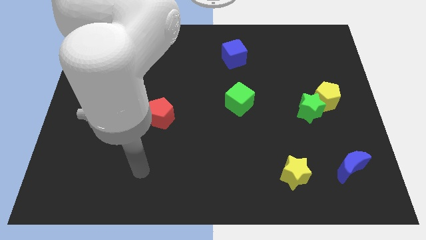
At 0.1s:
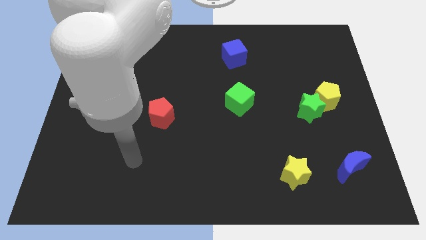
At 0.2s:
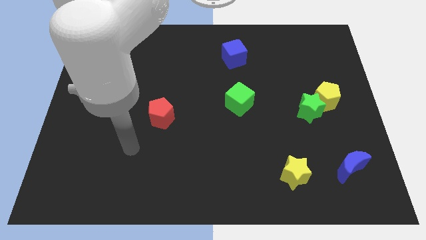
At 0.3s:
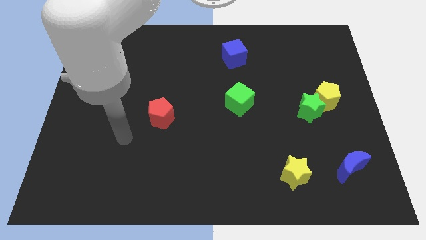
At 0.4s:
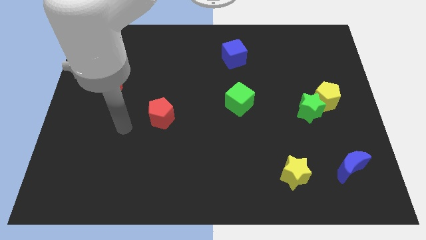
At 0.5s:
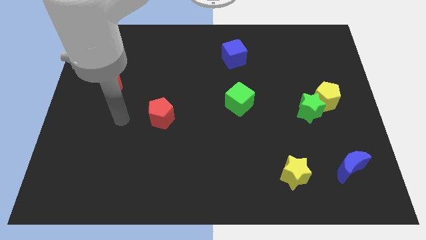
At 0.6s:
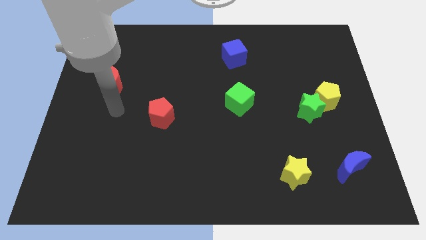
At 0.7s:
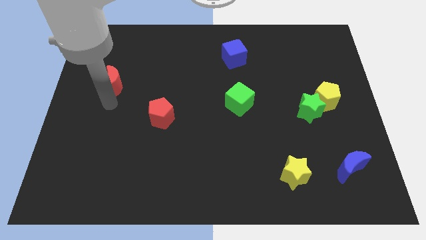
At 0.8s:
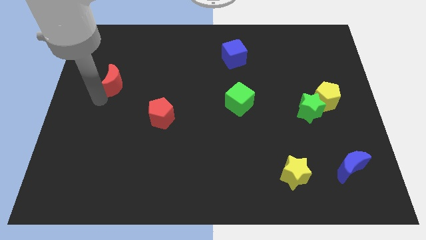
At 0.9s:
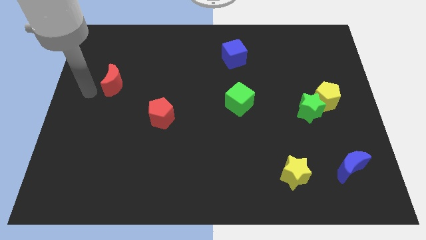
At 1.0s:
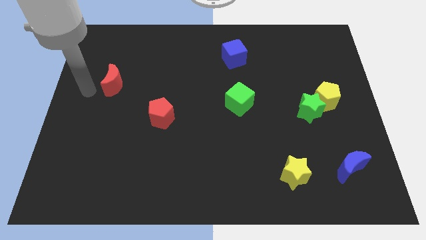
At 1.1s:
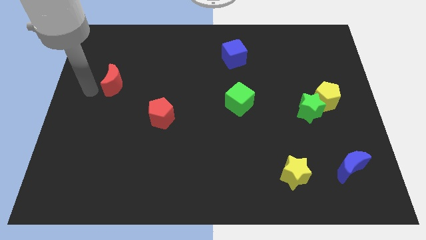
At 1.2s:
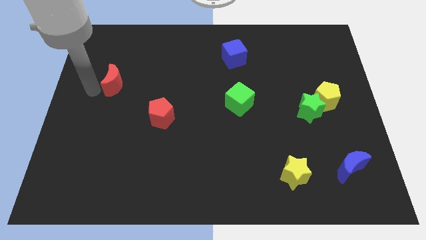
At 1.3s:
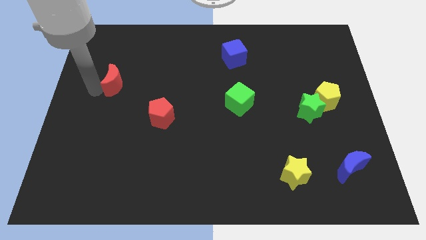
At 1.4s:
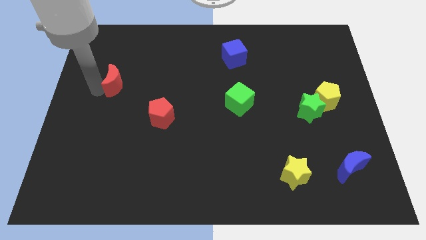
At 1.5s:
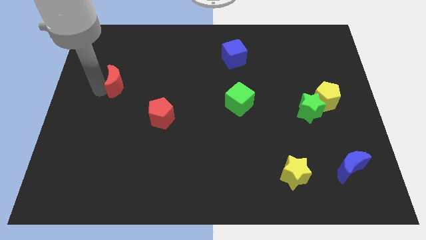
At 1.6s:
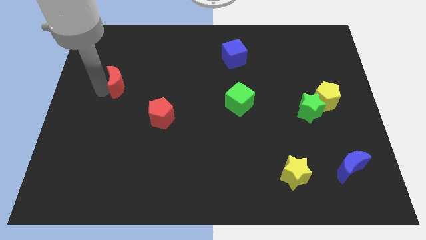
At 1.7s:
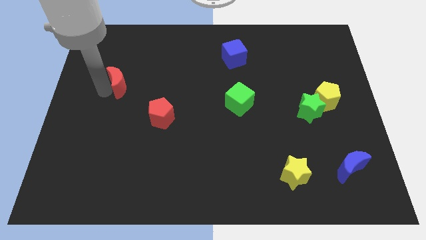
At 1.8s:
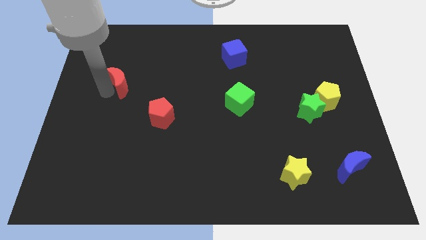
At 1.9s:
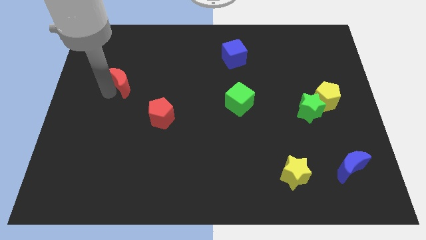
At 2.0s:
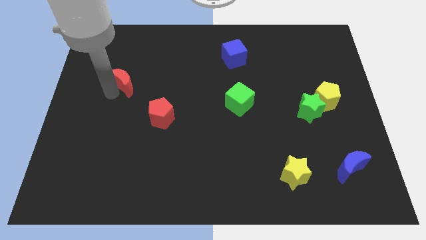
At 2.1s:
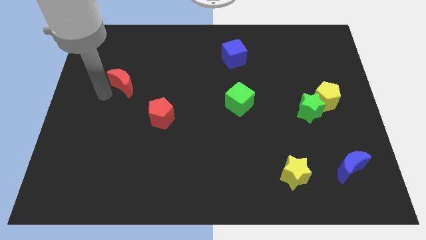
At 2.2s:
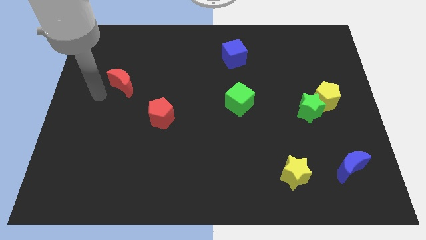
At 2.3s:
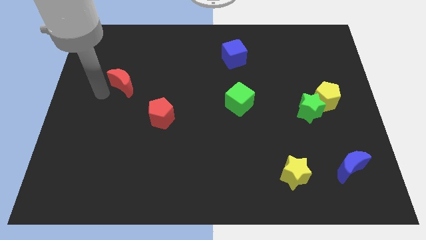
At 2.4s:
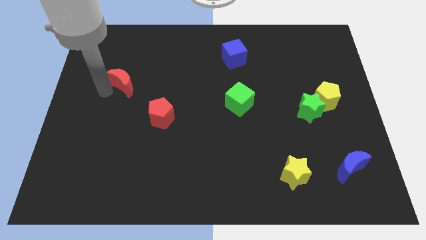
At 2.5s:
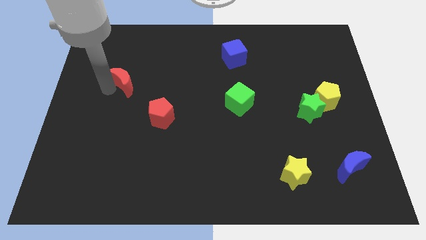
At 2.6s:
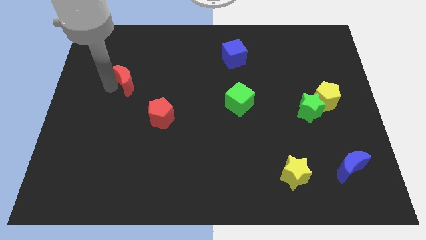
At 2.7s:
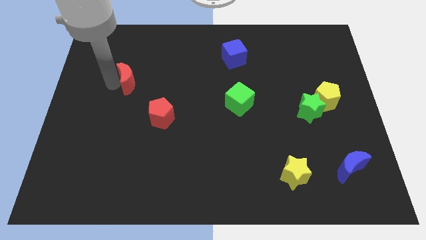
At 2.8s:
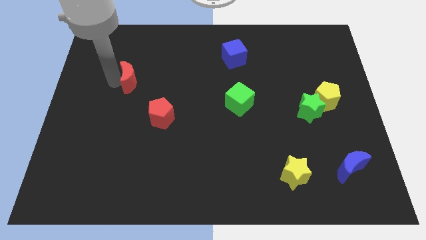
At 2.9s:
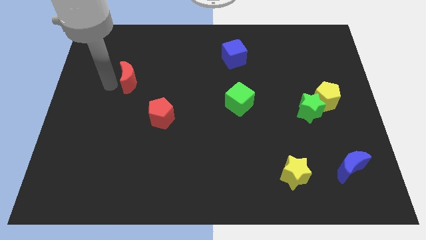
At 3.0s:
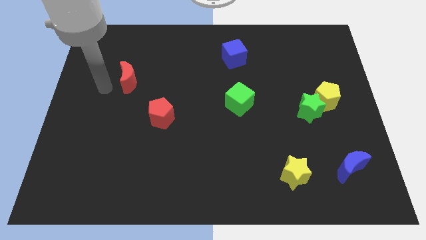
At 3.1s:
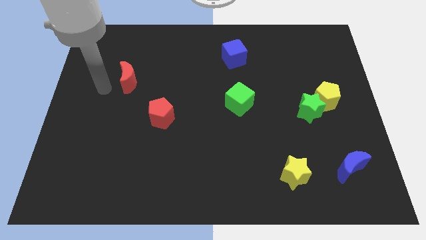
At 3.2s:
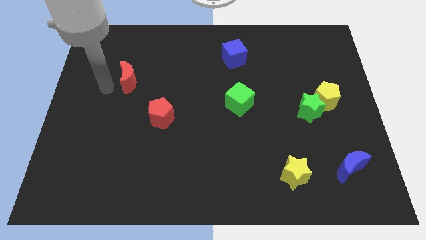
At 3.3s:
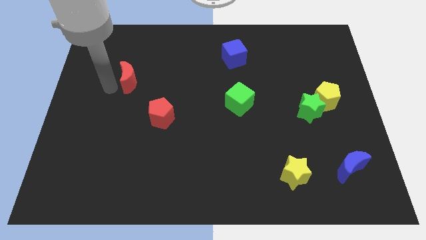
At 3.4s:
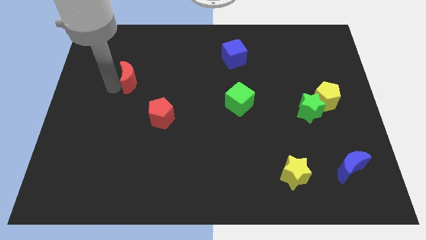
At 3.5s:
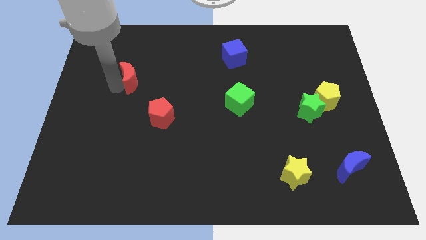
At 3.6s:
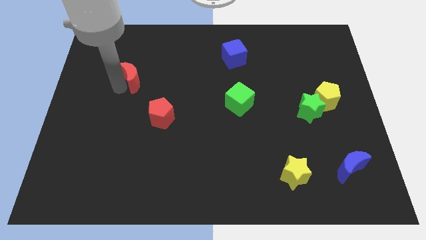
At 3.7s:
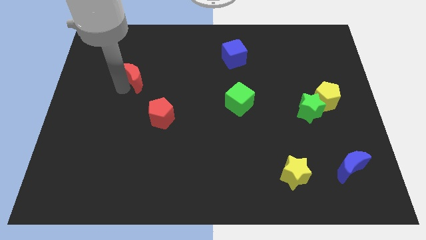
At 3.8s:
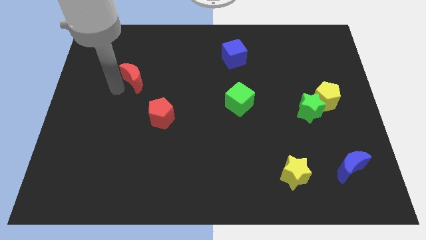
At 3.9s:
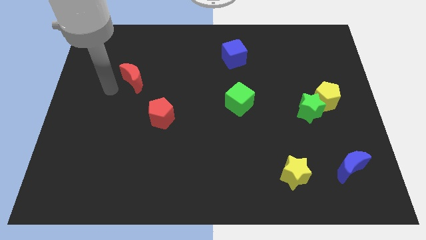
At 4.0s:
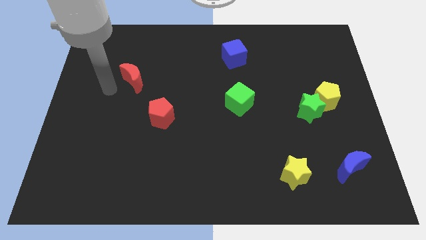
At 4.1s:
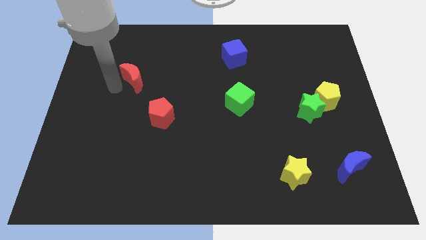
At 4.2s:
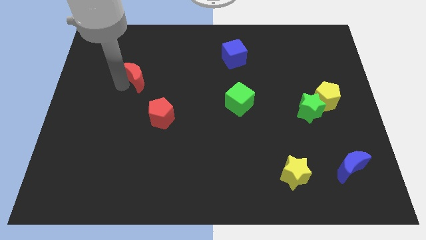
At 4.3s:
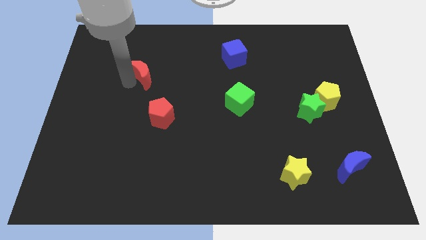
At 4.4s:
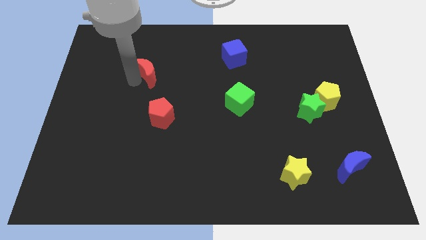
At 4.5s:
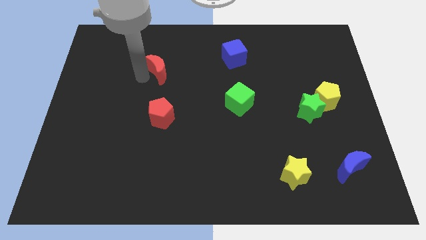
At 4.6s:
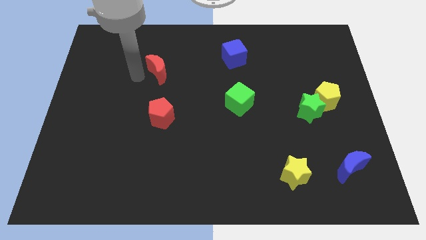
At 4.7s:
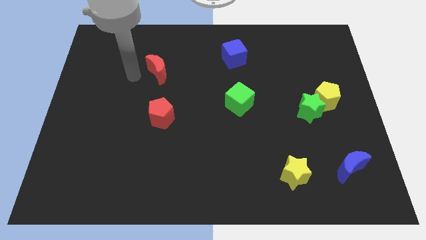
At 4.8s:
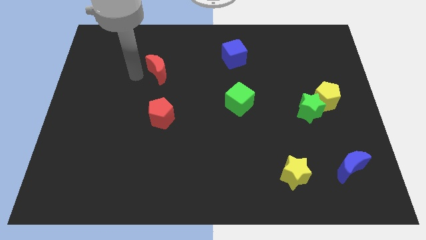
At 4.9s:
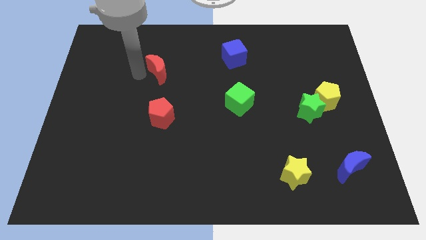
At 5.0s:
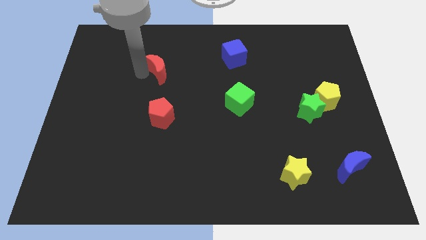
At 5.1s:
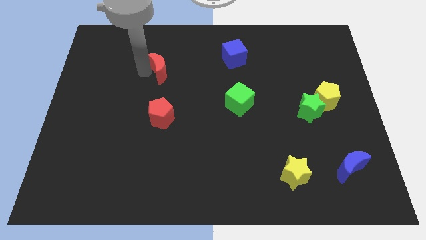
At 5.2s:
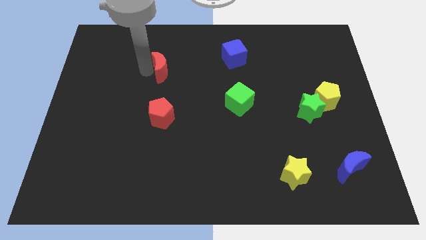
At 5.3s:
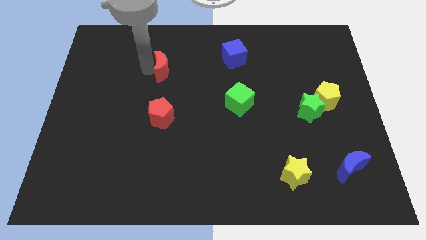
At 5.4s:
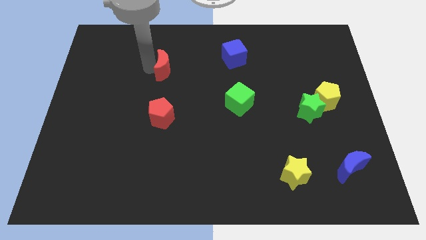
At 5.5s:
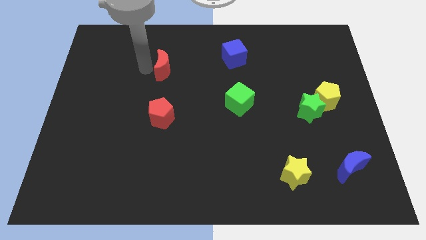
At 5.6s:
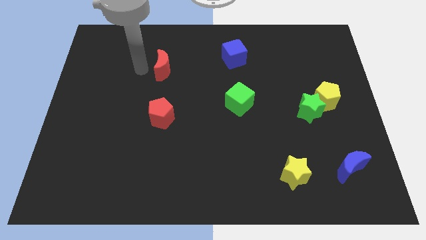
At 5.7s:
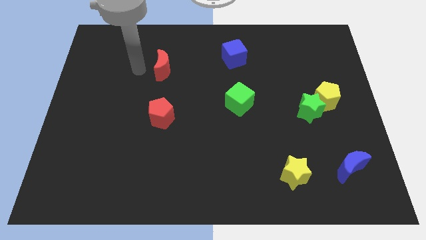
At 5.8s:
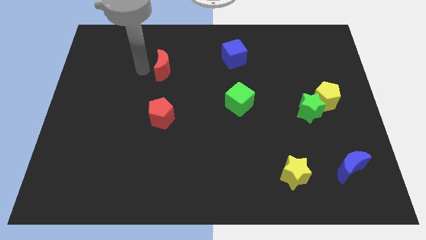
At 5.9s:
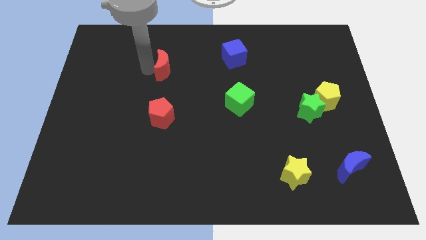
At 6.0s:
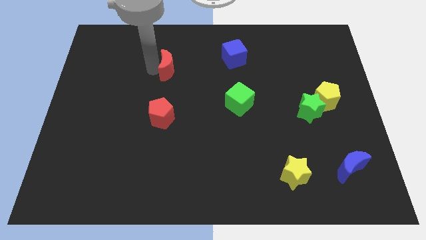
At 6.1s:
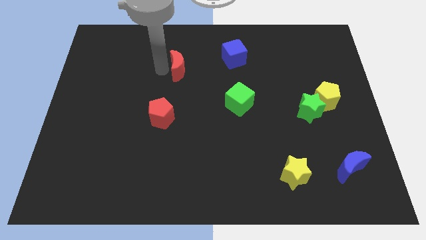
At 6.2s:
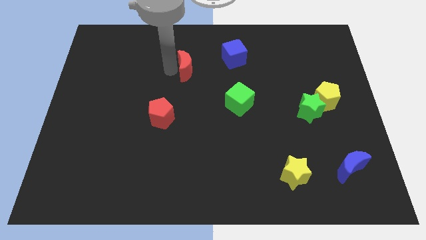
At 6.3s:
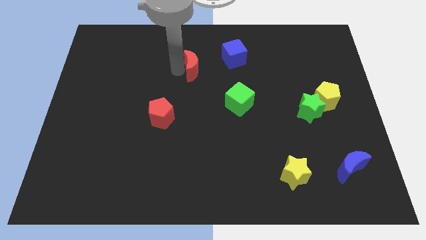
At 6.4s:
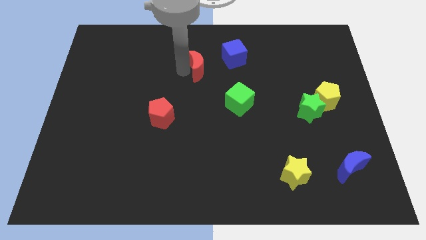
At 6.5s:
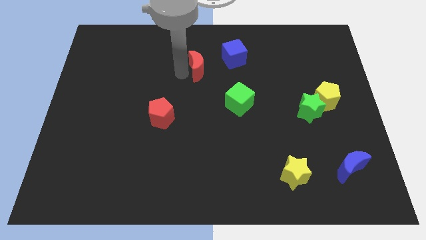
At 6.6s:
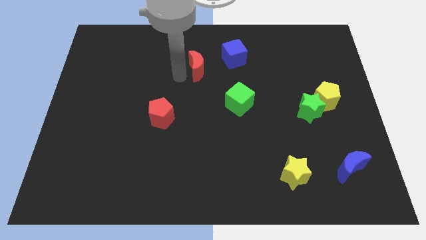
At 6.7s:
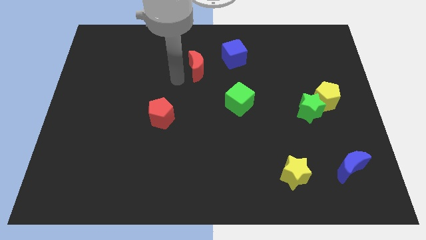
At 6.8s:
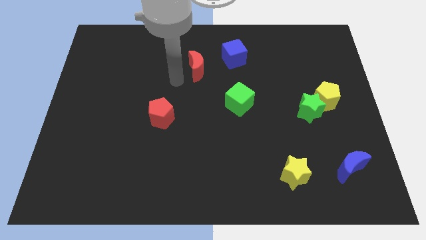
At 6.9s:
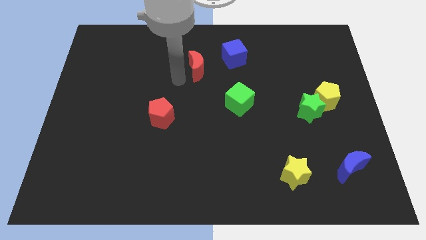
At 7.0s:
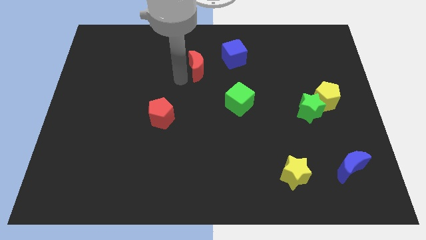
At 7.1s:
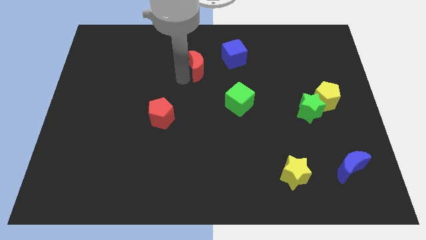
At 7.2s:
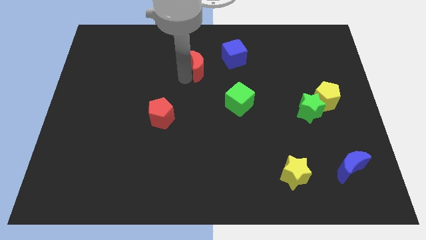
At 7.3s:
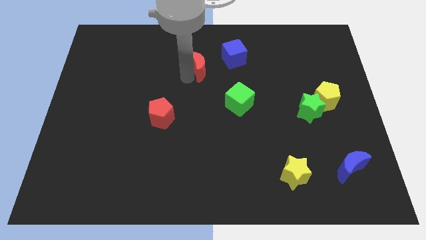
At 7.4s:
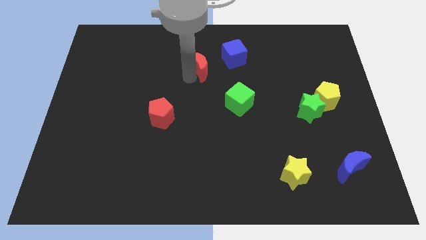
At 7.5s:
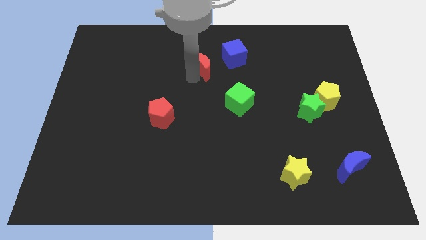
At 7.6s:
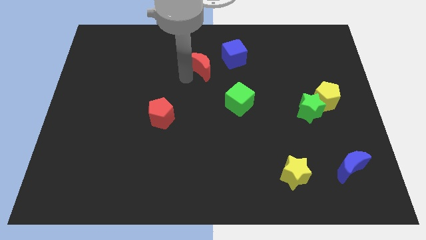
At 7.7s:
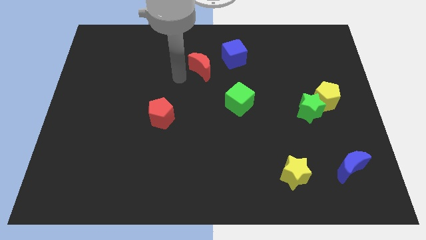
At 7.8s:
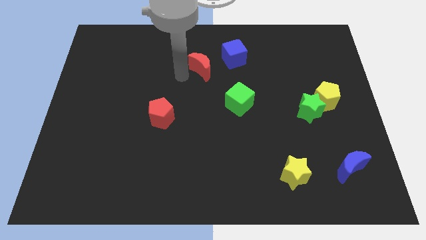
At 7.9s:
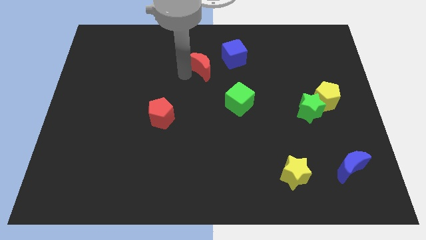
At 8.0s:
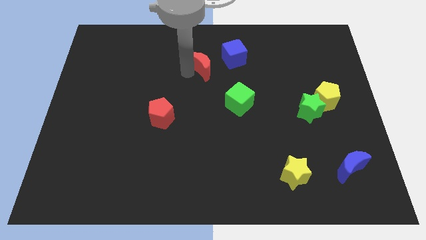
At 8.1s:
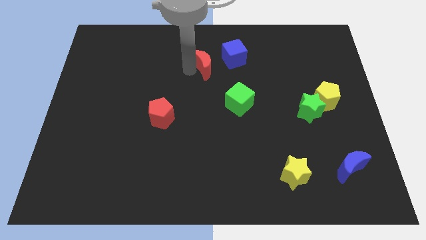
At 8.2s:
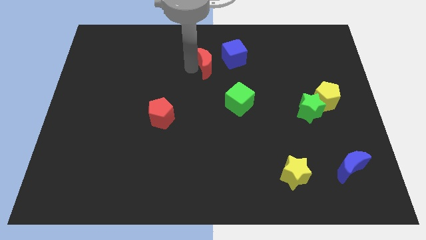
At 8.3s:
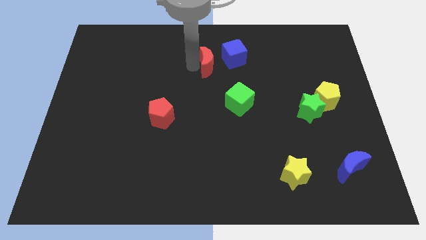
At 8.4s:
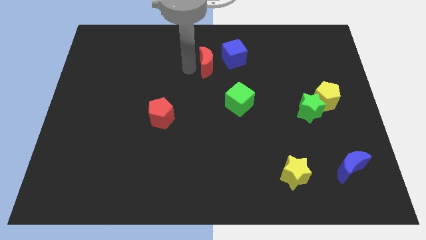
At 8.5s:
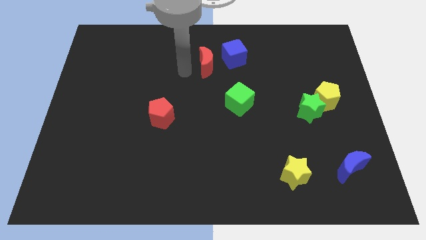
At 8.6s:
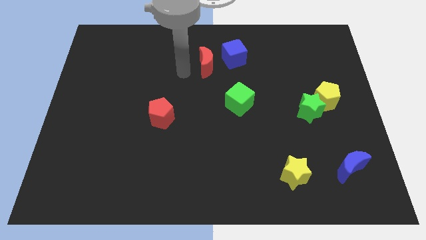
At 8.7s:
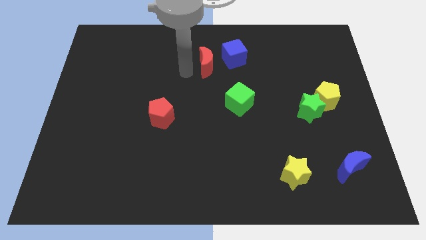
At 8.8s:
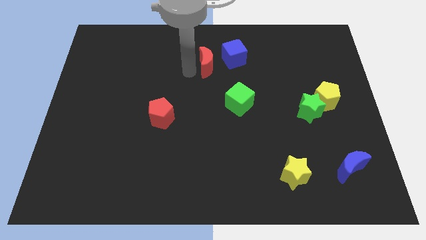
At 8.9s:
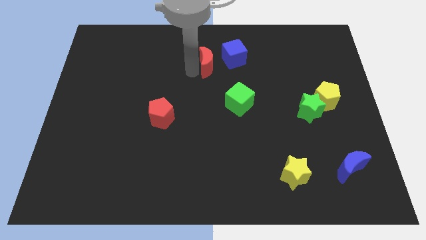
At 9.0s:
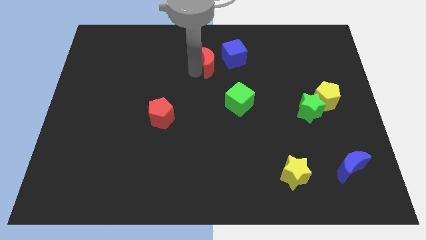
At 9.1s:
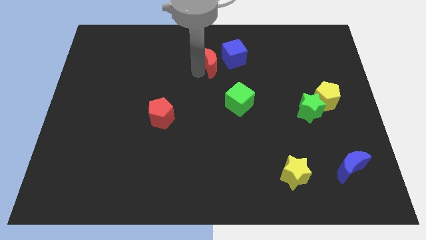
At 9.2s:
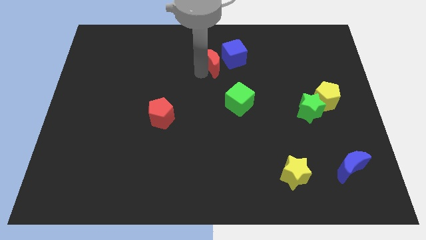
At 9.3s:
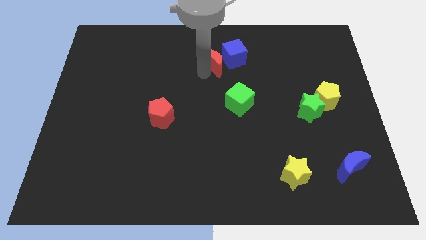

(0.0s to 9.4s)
slide the red moon towards the blue cube
